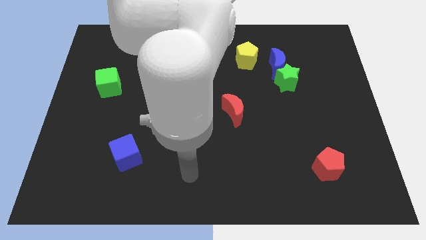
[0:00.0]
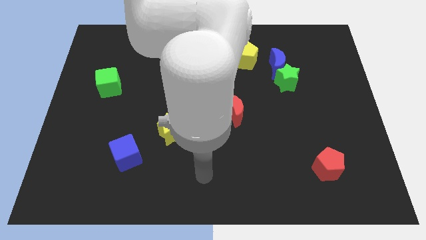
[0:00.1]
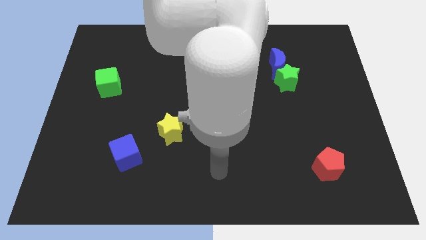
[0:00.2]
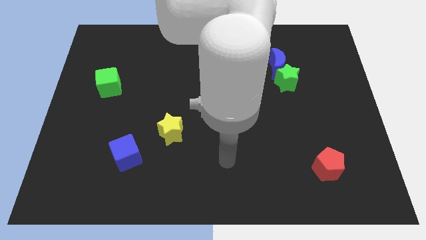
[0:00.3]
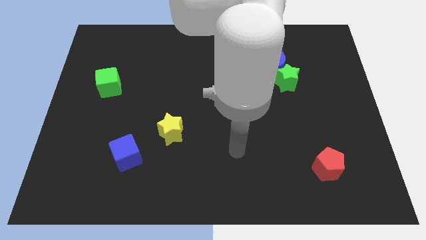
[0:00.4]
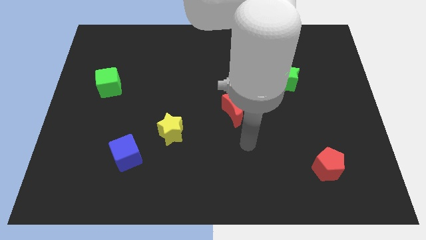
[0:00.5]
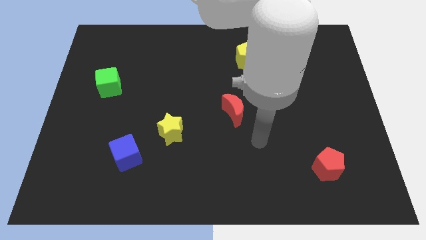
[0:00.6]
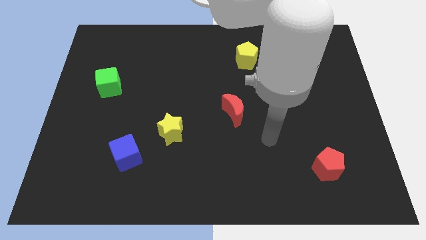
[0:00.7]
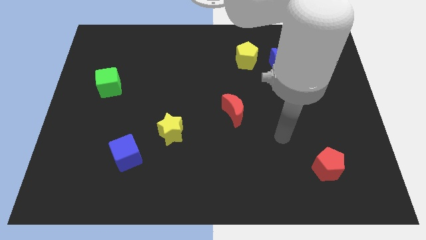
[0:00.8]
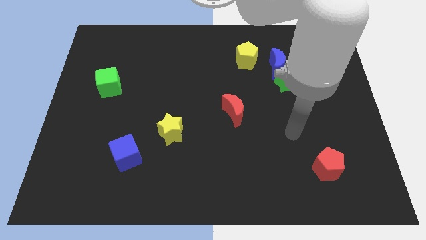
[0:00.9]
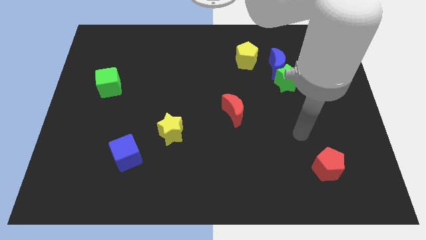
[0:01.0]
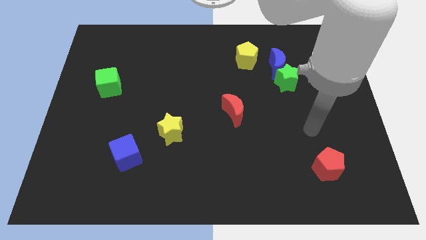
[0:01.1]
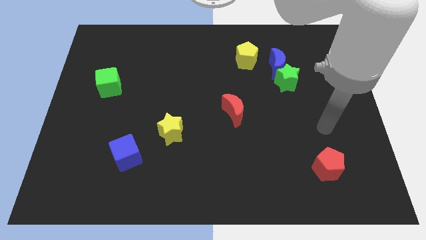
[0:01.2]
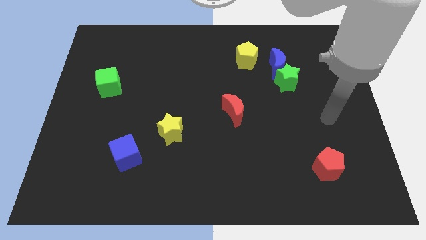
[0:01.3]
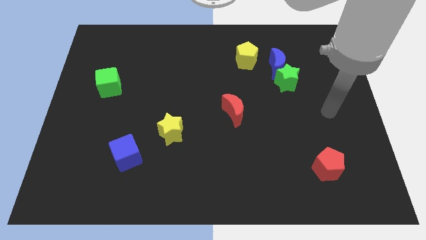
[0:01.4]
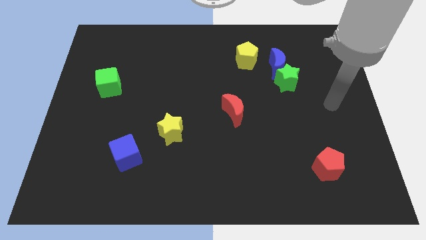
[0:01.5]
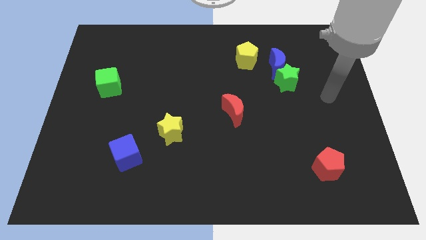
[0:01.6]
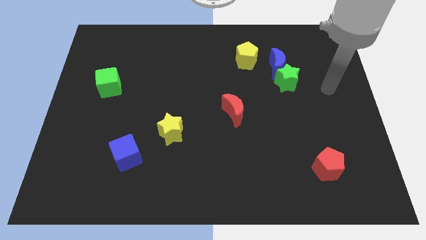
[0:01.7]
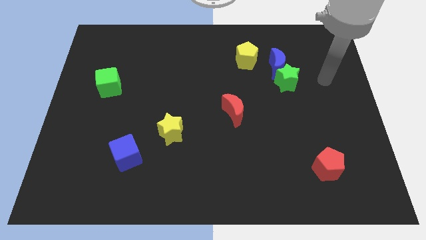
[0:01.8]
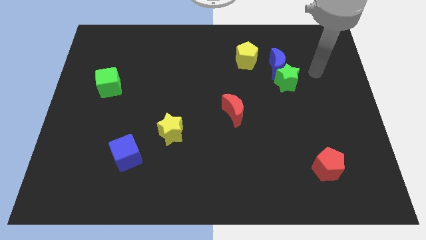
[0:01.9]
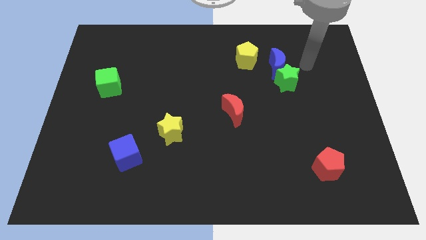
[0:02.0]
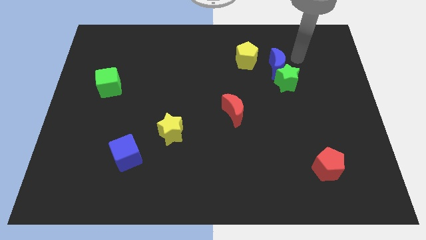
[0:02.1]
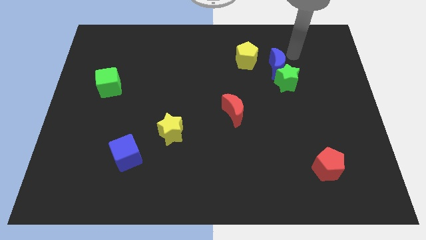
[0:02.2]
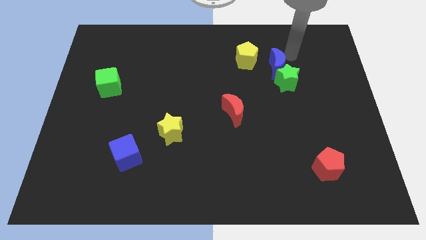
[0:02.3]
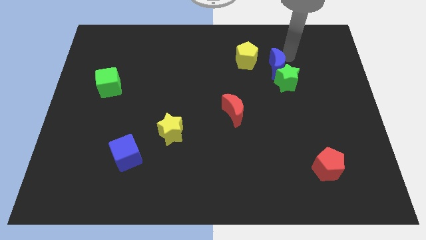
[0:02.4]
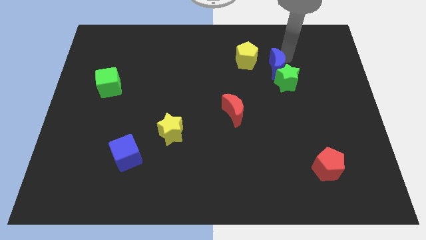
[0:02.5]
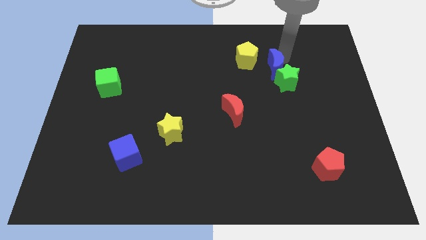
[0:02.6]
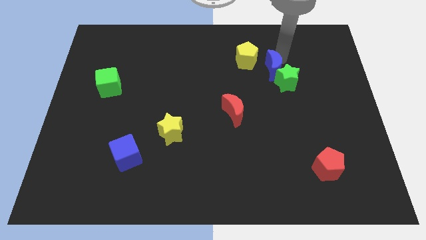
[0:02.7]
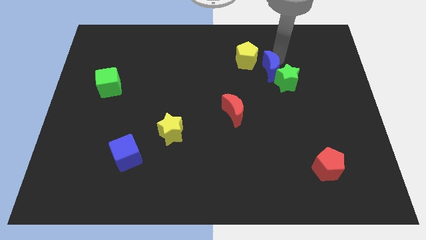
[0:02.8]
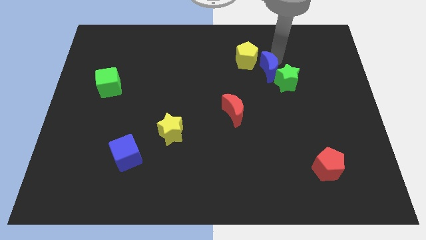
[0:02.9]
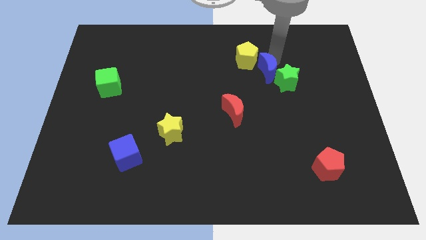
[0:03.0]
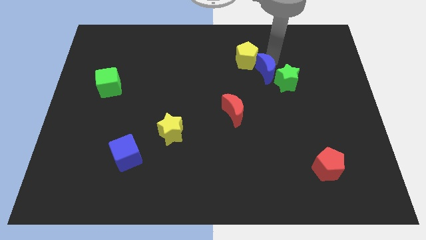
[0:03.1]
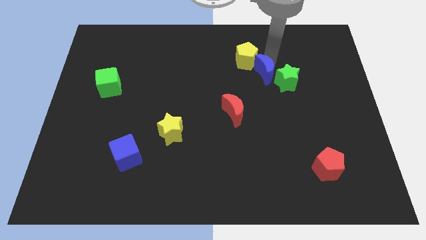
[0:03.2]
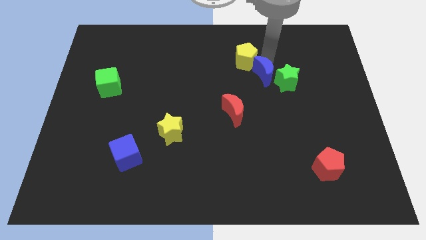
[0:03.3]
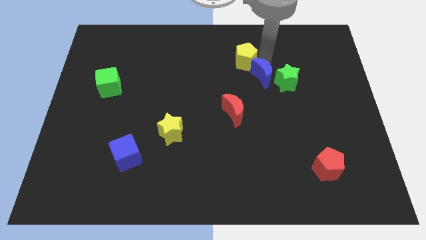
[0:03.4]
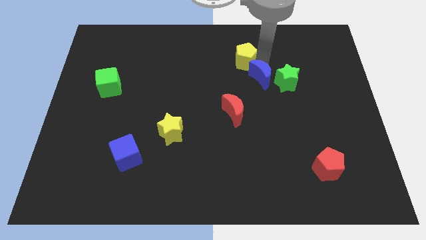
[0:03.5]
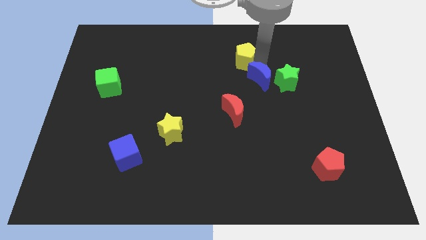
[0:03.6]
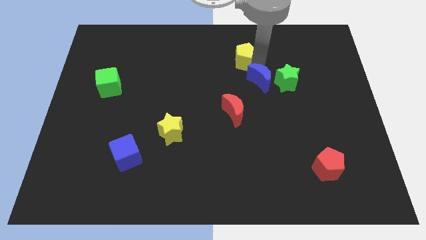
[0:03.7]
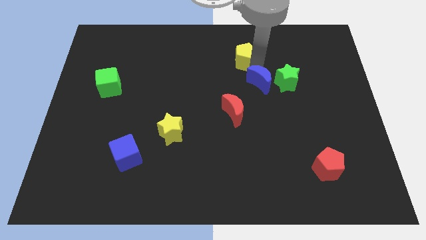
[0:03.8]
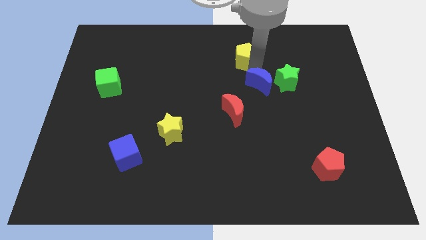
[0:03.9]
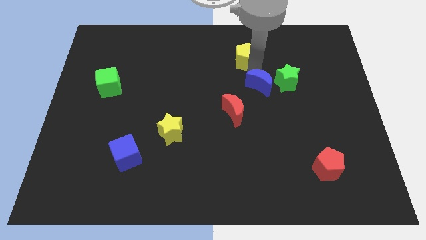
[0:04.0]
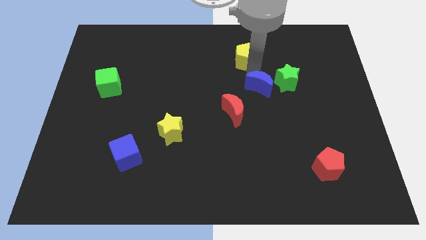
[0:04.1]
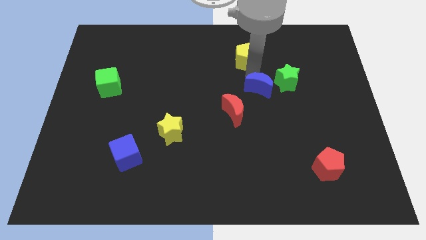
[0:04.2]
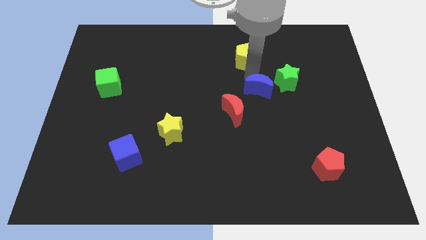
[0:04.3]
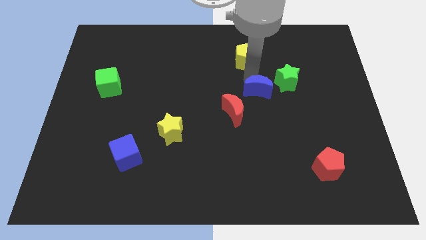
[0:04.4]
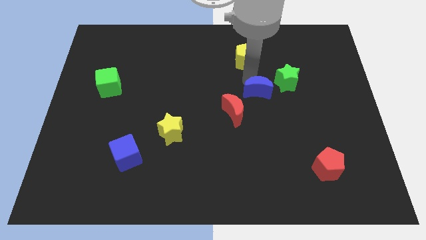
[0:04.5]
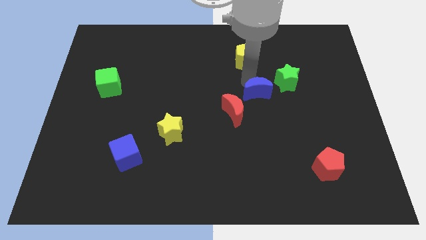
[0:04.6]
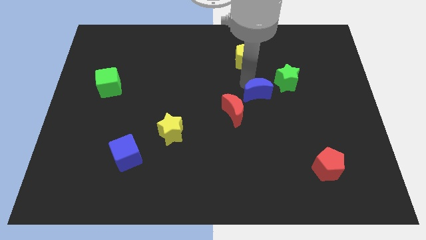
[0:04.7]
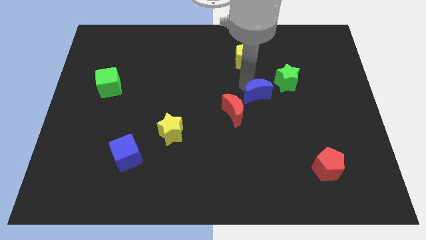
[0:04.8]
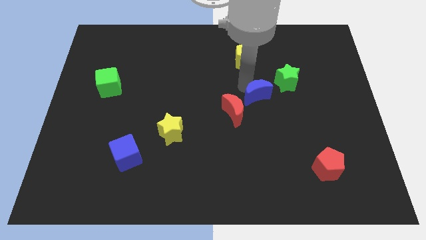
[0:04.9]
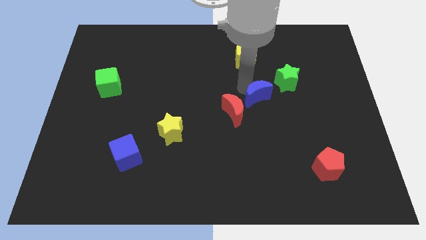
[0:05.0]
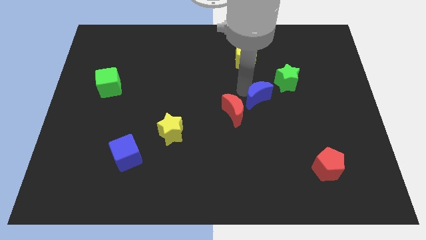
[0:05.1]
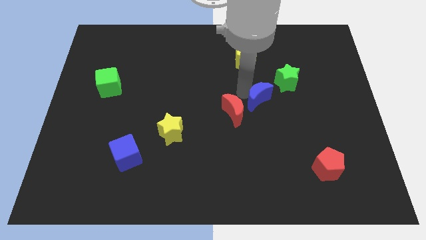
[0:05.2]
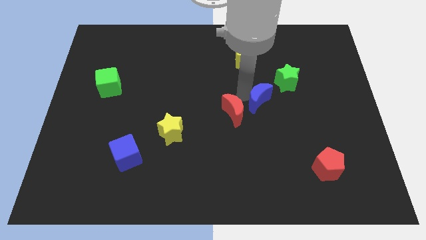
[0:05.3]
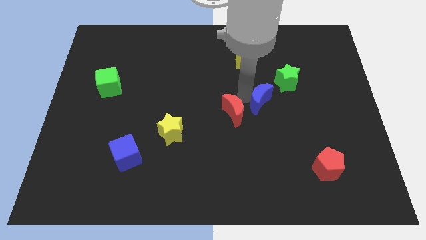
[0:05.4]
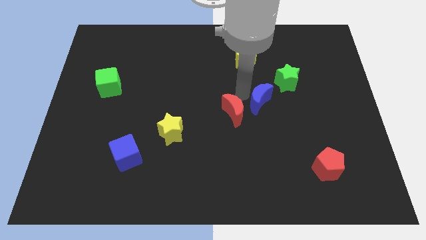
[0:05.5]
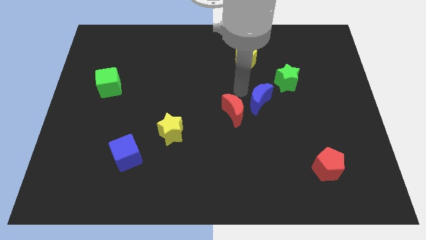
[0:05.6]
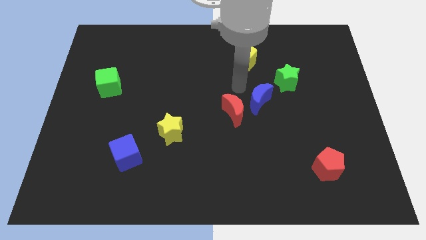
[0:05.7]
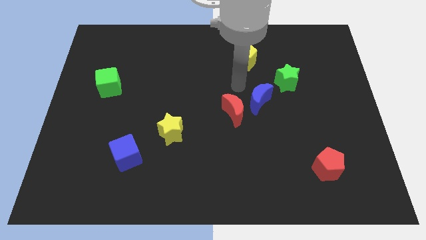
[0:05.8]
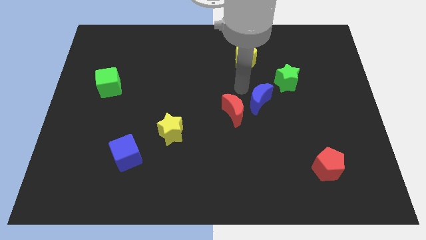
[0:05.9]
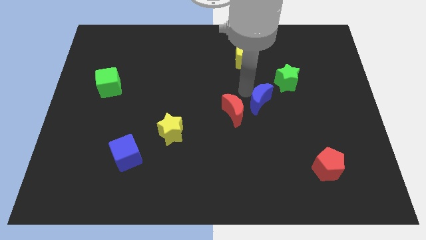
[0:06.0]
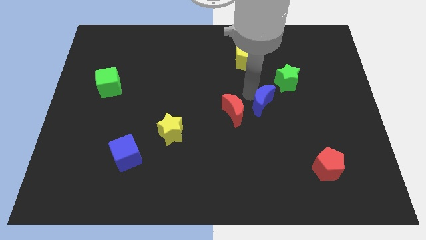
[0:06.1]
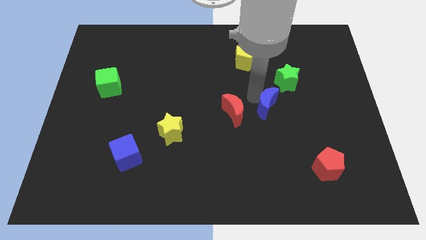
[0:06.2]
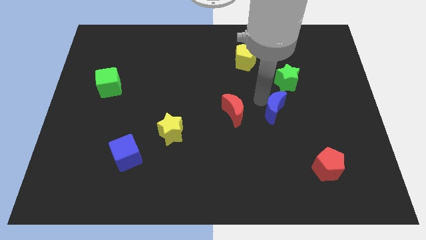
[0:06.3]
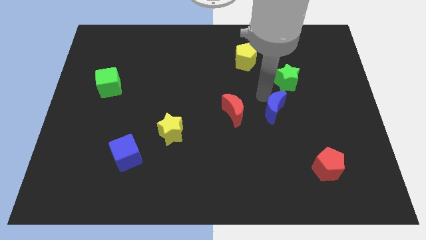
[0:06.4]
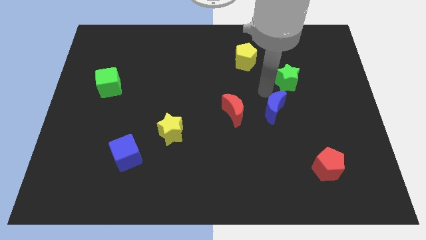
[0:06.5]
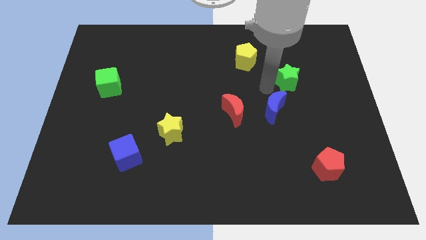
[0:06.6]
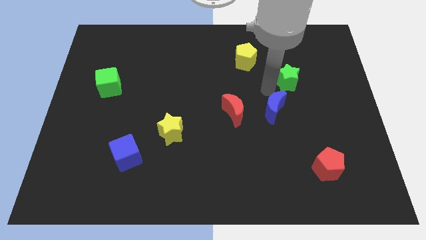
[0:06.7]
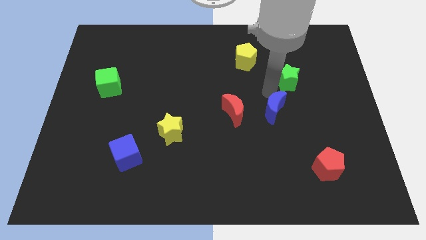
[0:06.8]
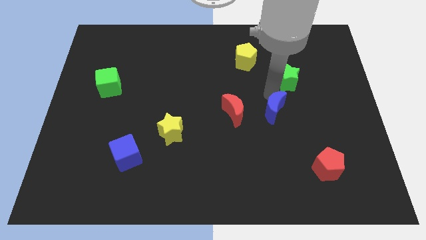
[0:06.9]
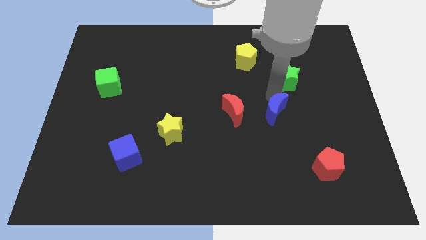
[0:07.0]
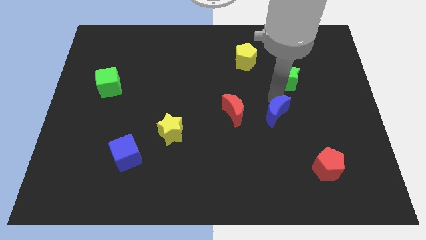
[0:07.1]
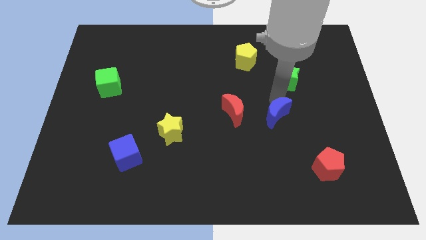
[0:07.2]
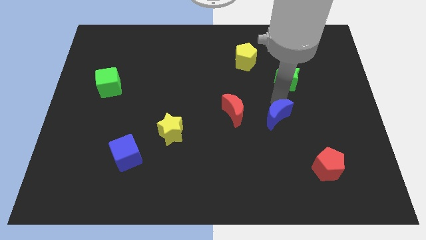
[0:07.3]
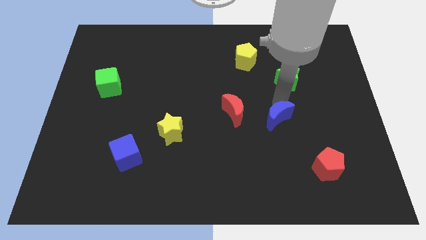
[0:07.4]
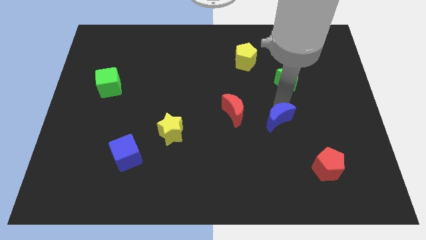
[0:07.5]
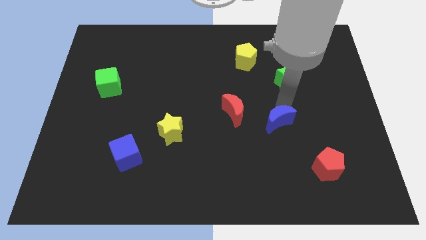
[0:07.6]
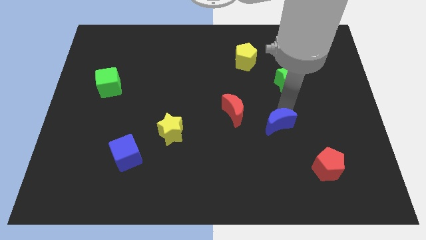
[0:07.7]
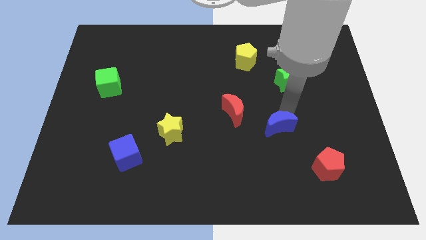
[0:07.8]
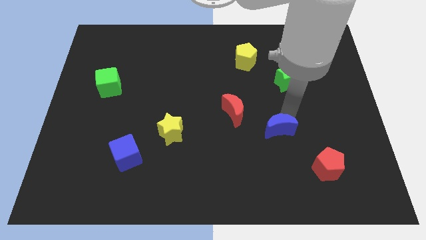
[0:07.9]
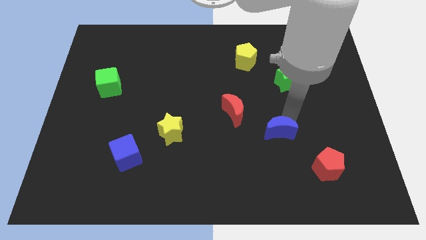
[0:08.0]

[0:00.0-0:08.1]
slide the blue moon downwards

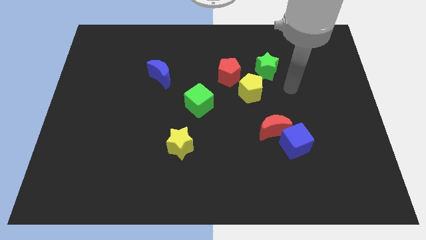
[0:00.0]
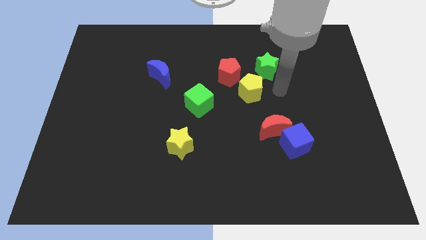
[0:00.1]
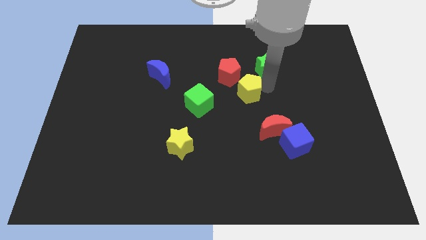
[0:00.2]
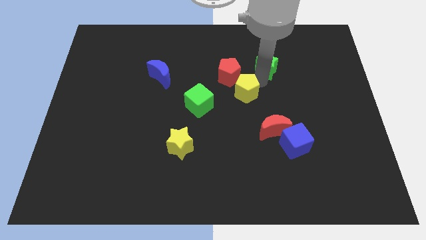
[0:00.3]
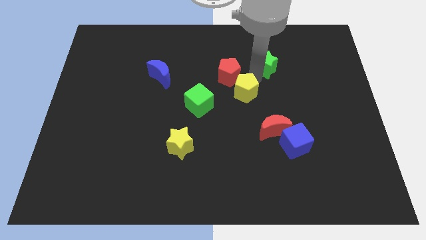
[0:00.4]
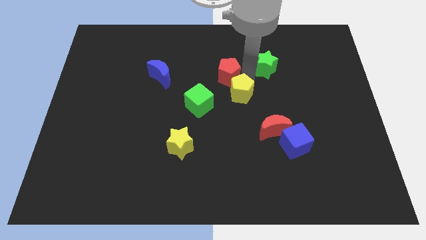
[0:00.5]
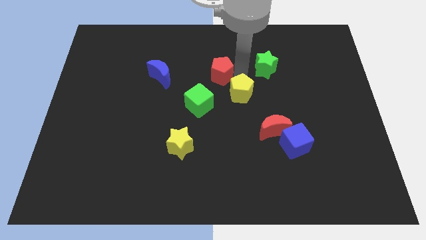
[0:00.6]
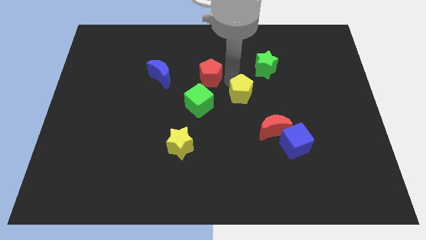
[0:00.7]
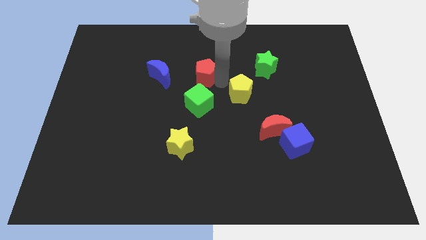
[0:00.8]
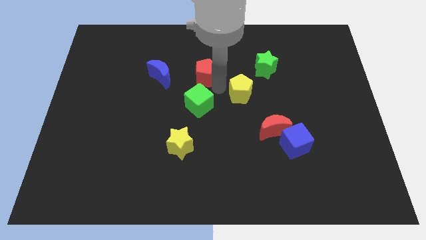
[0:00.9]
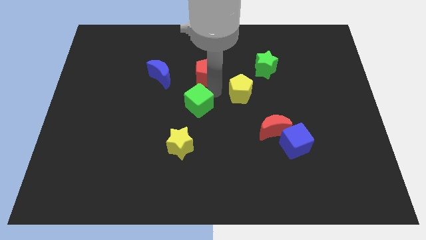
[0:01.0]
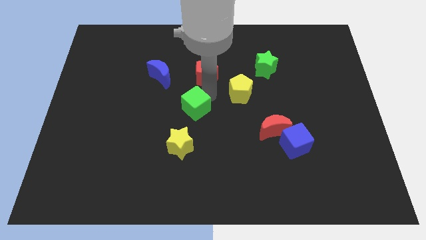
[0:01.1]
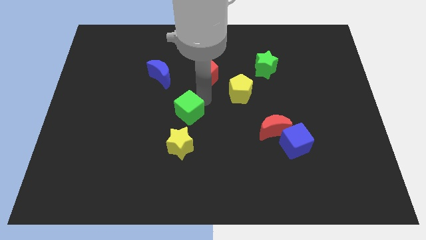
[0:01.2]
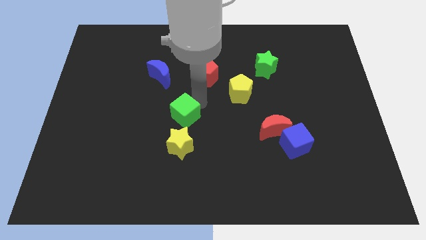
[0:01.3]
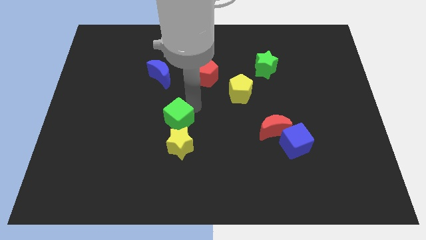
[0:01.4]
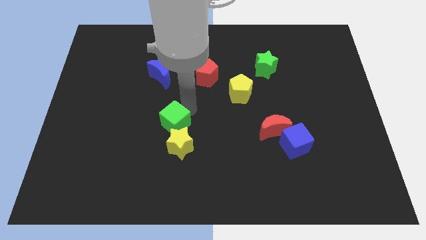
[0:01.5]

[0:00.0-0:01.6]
push the green cube down and to the left diagonally somewhat
